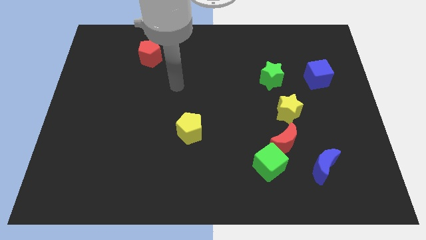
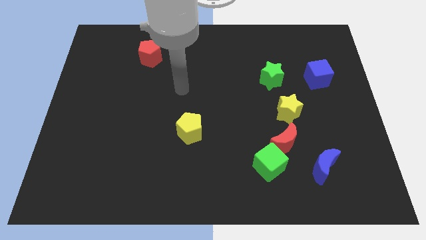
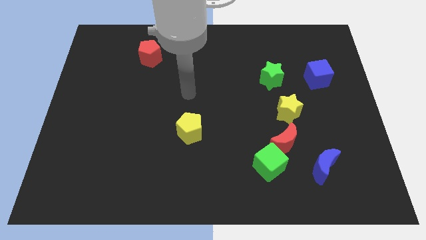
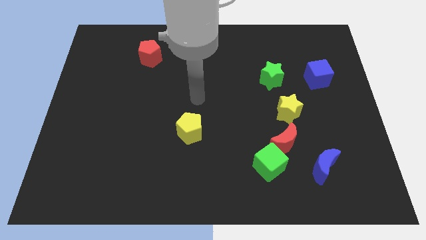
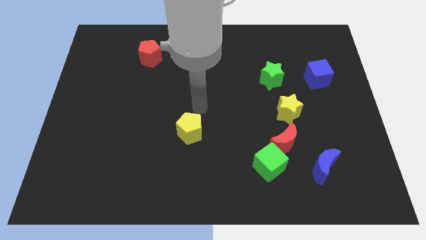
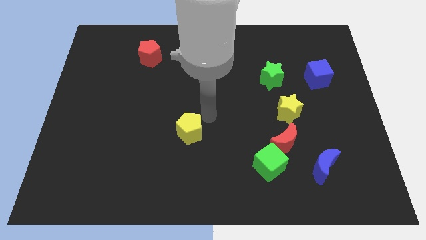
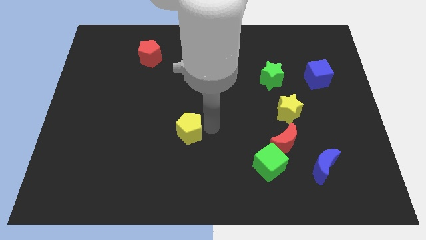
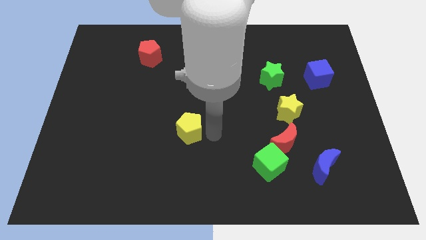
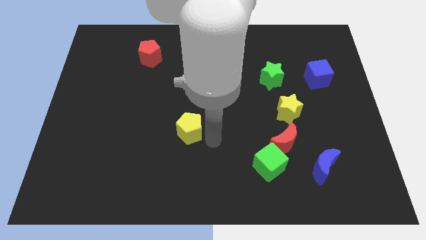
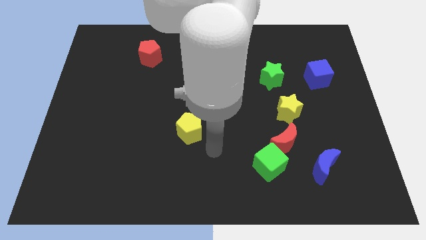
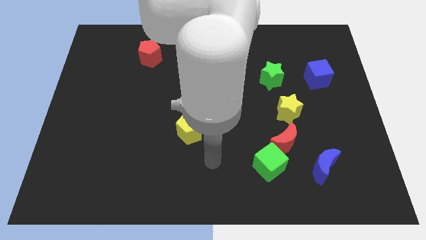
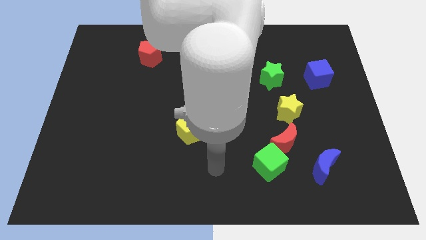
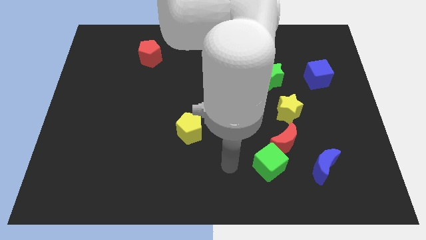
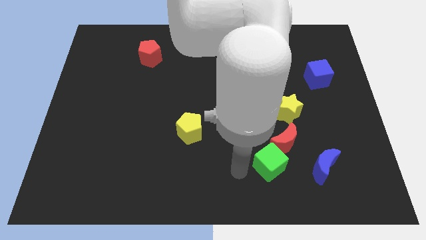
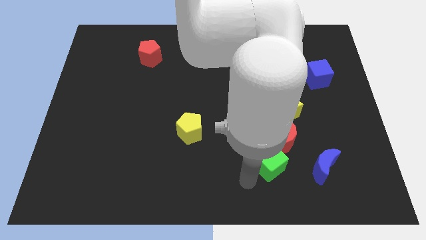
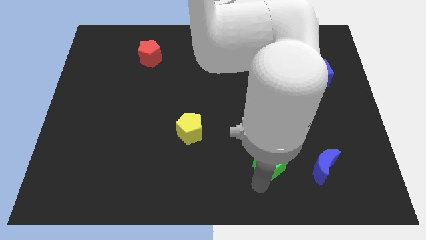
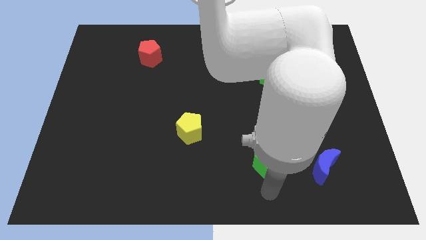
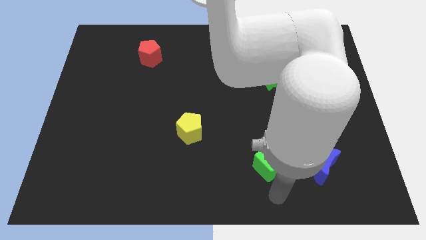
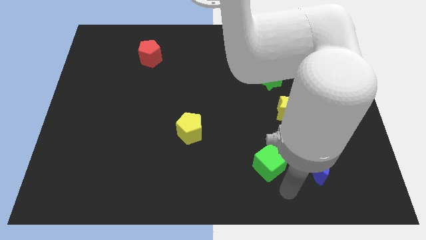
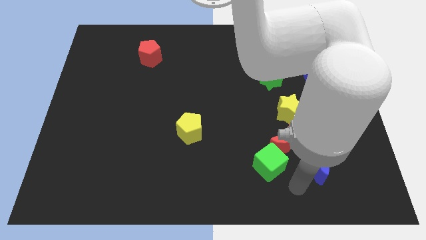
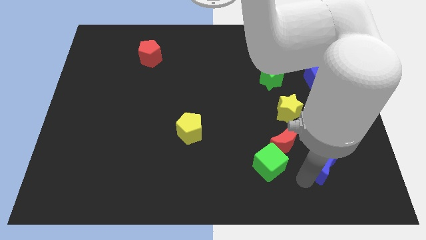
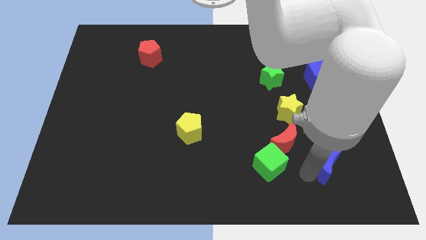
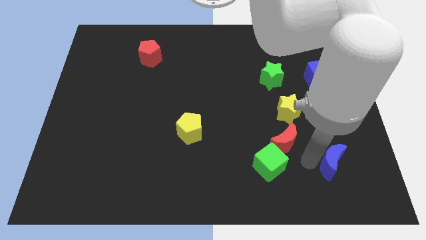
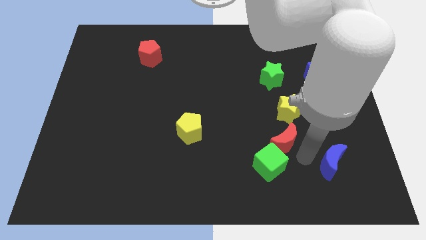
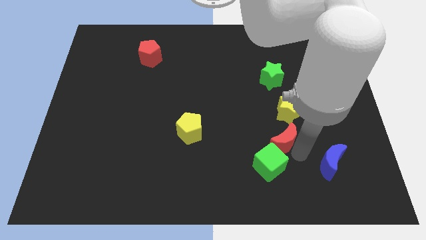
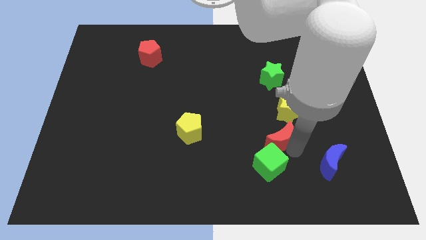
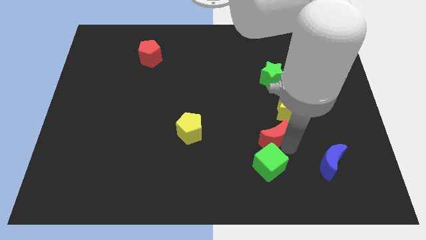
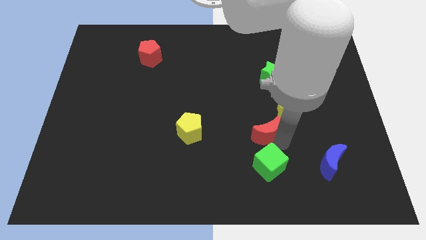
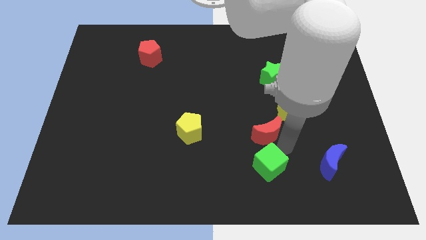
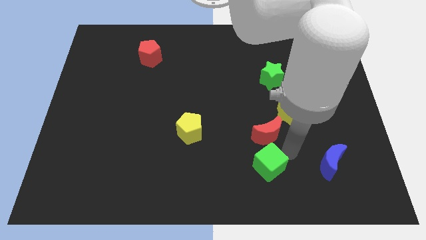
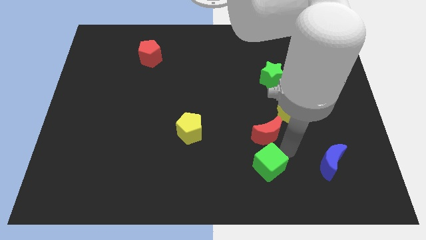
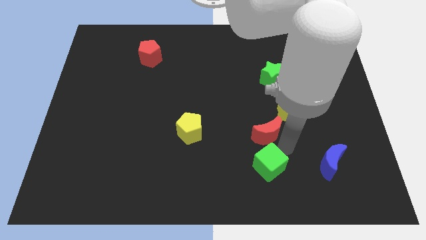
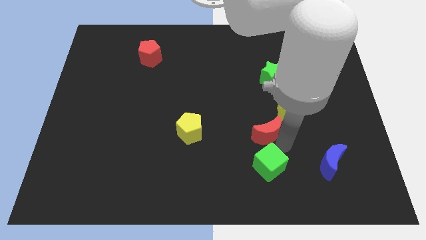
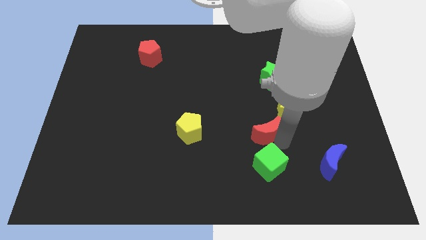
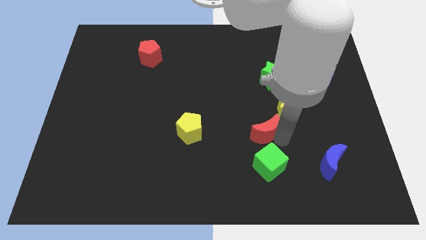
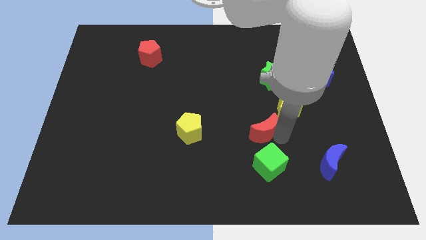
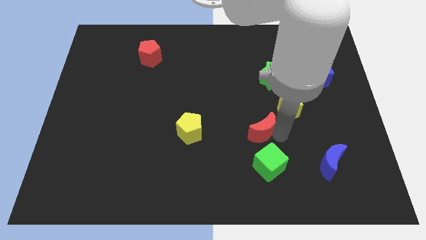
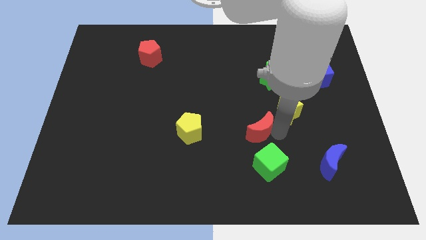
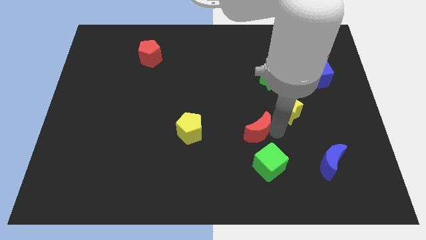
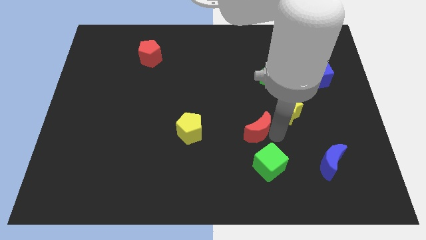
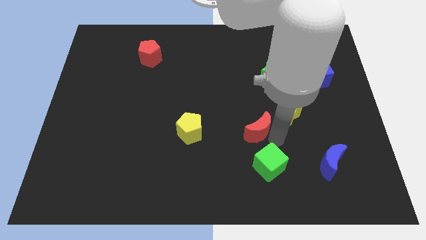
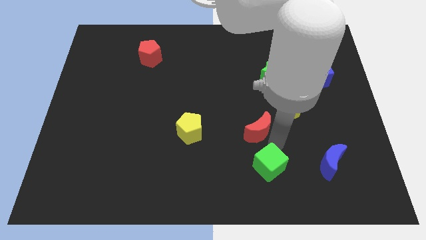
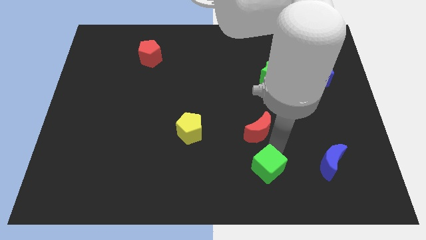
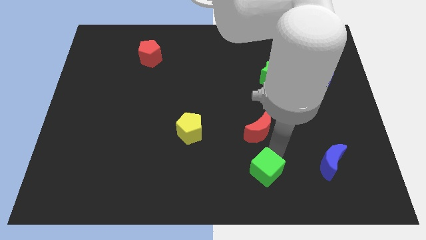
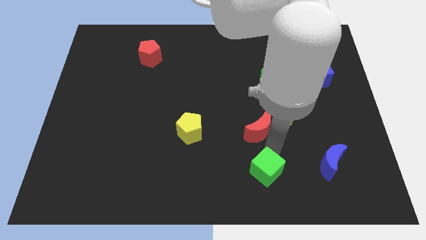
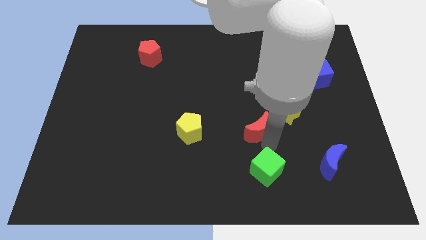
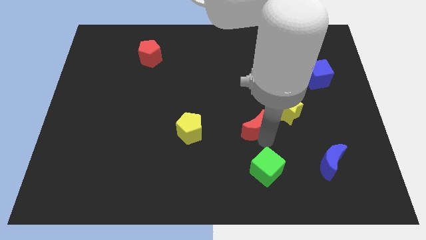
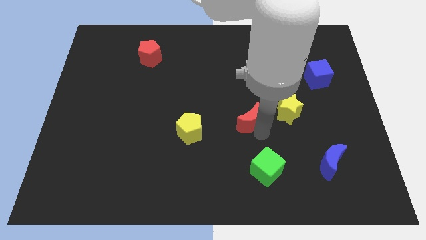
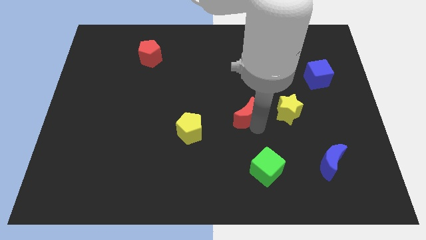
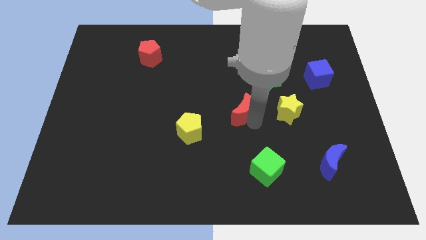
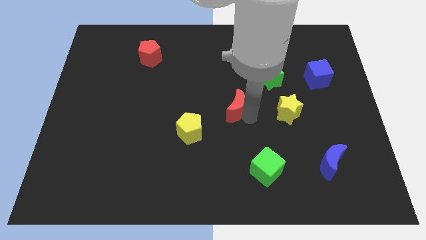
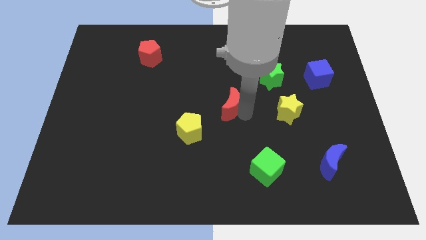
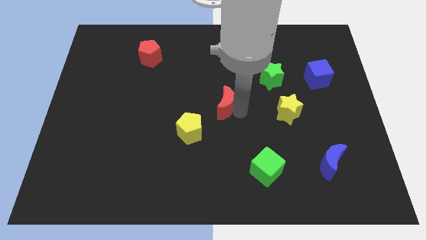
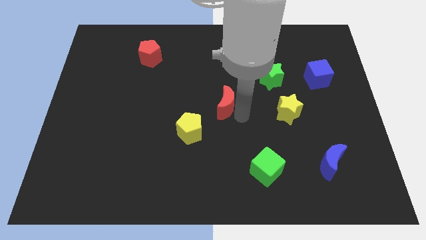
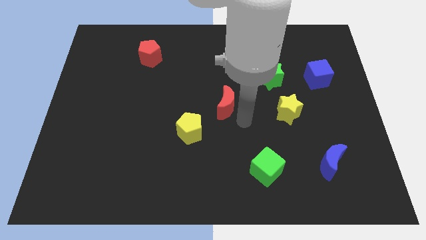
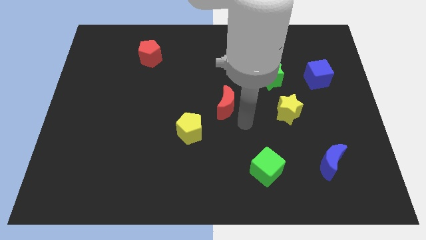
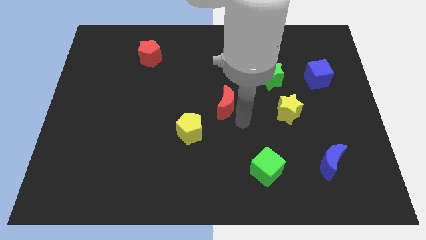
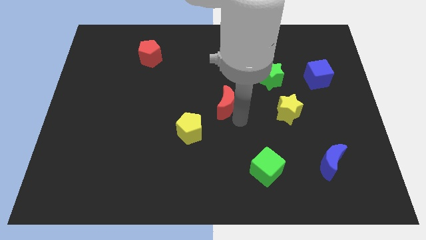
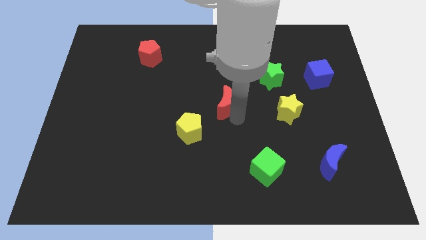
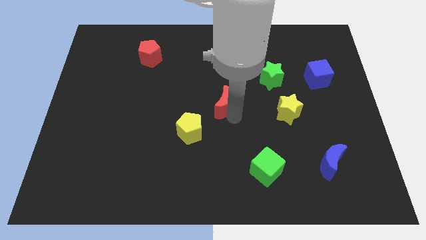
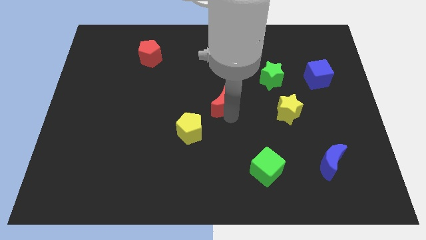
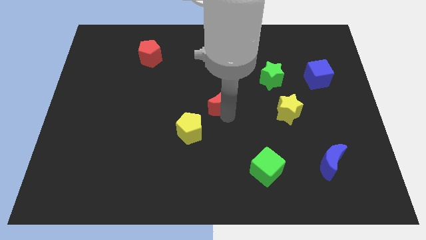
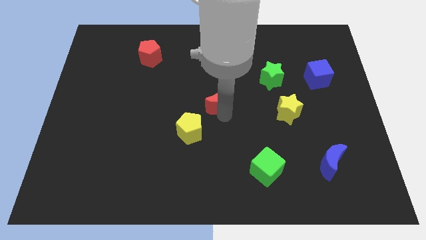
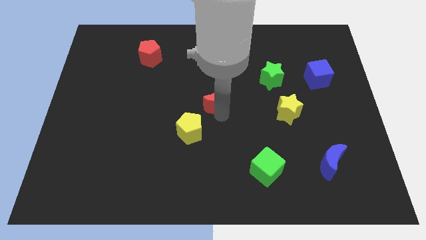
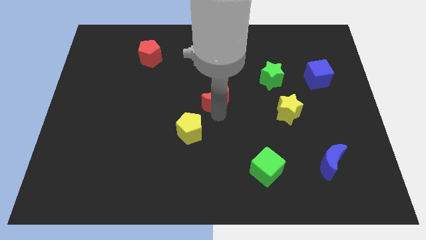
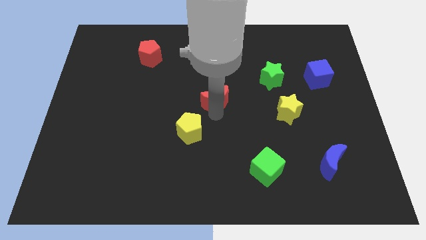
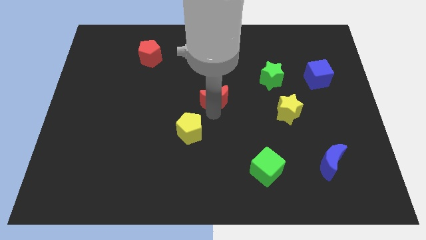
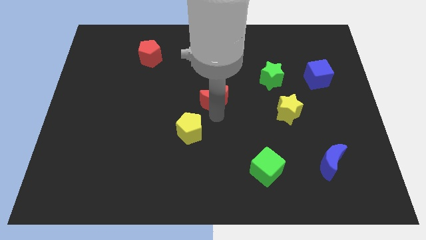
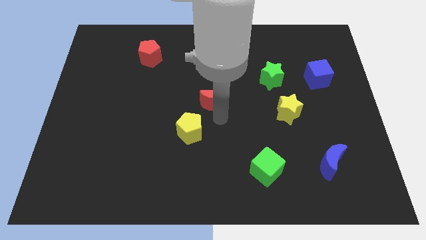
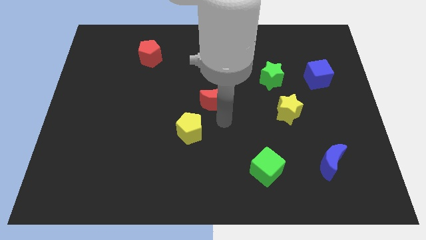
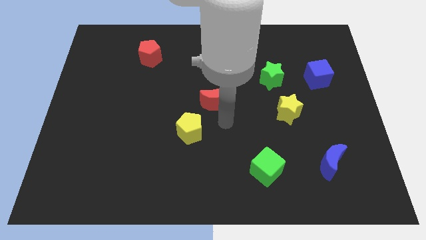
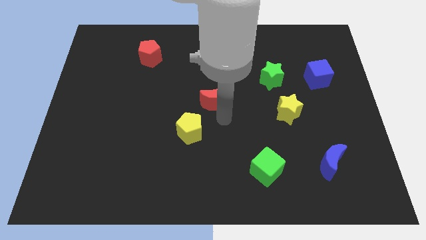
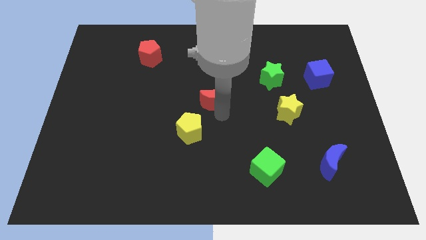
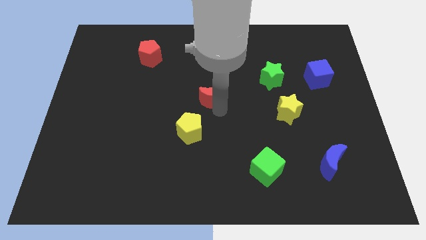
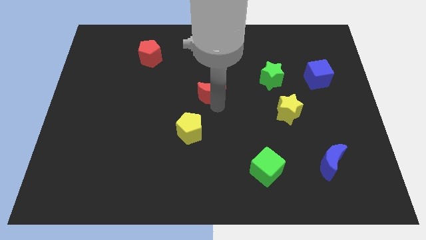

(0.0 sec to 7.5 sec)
move the red moon up and to the left

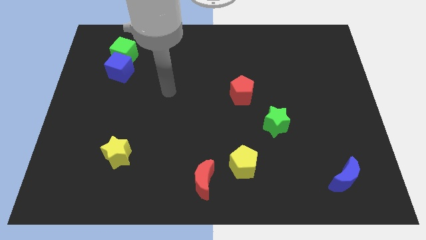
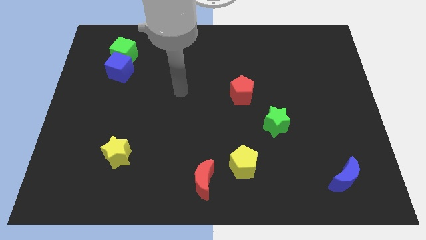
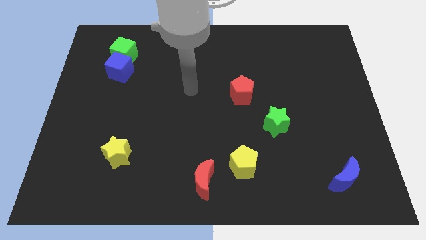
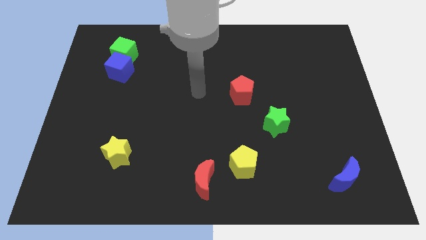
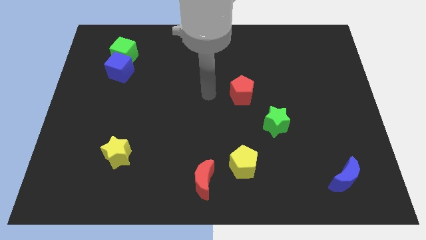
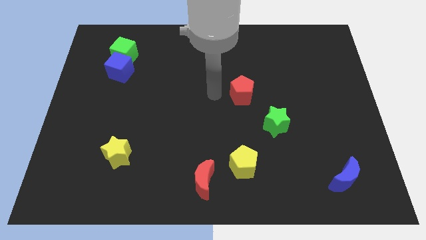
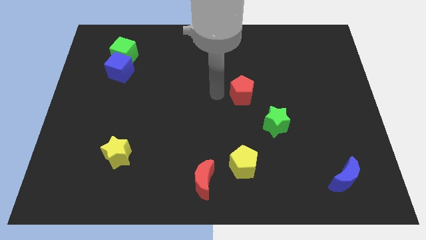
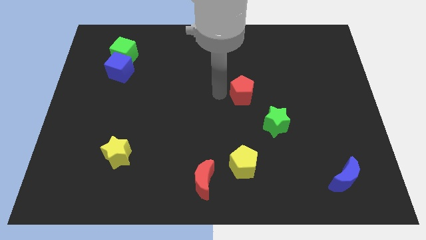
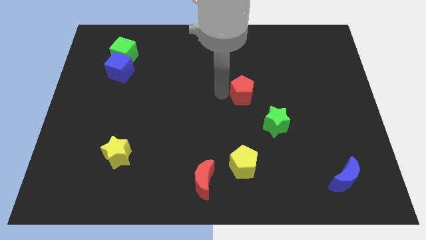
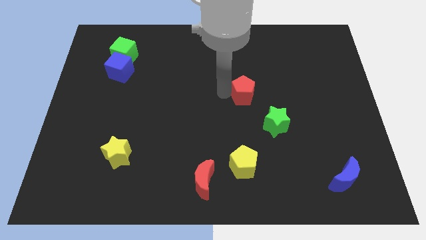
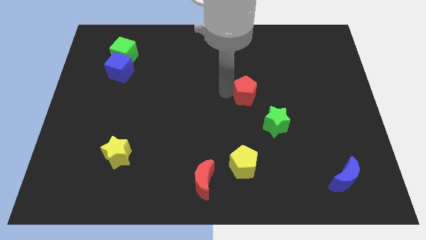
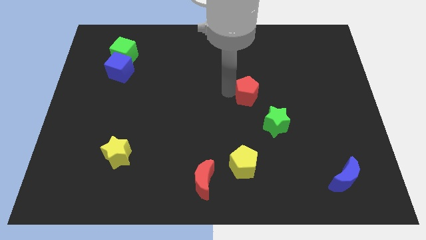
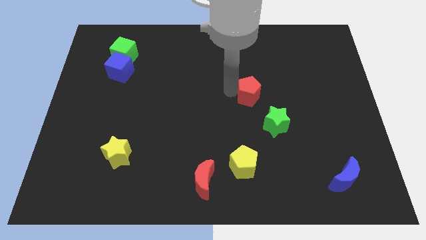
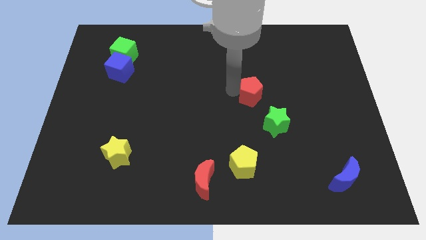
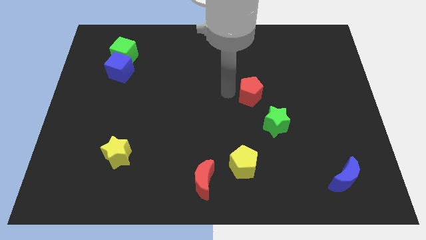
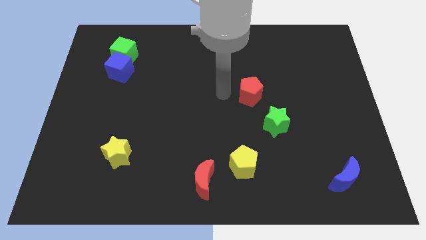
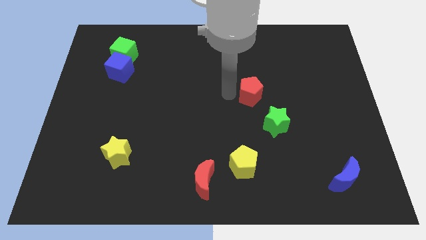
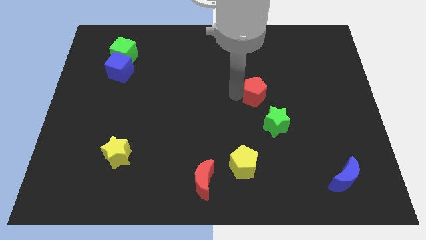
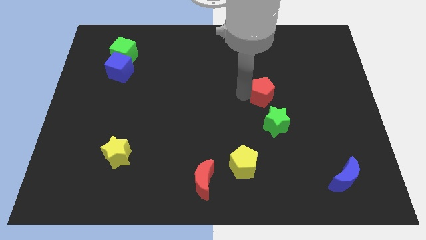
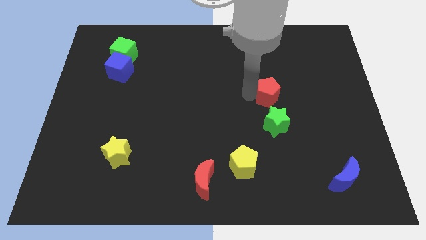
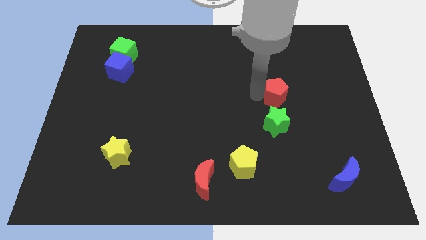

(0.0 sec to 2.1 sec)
slightly move the red pentagon right
